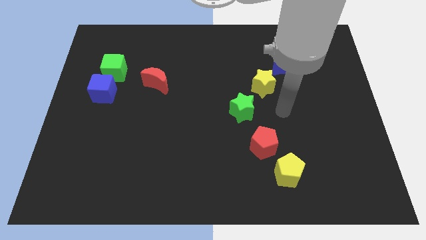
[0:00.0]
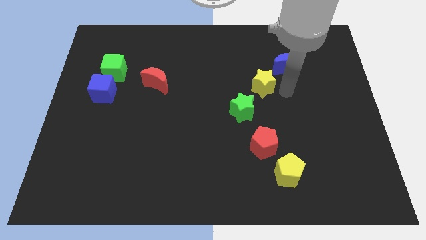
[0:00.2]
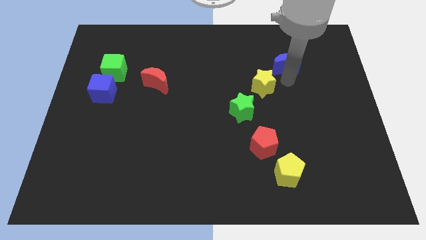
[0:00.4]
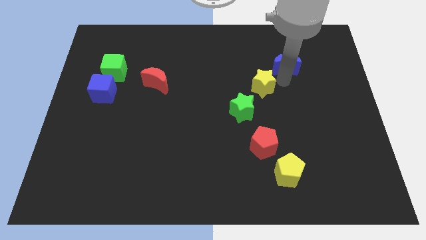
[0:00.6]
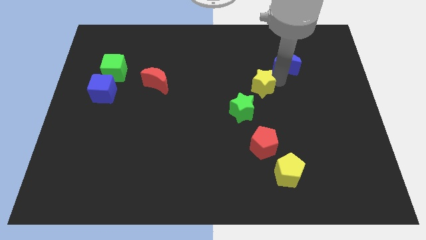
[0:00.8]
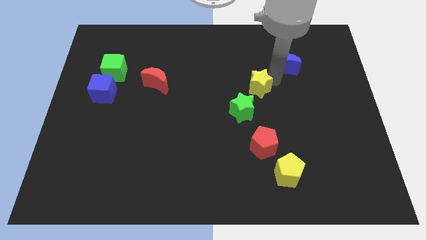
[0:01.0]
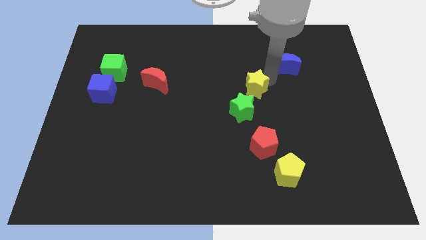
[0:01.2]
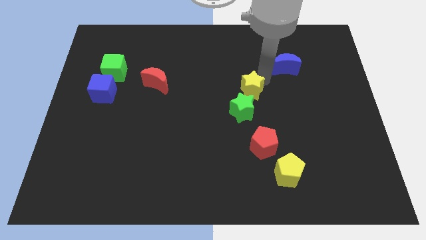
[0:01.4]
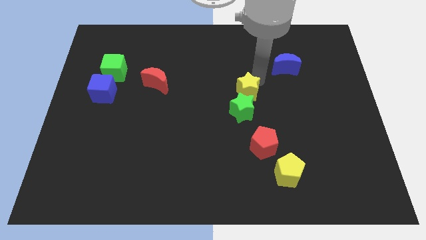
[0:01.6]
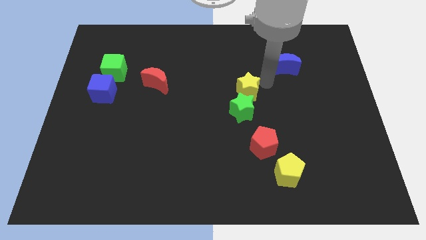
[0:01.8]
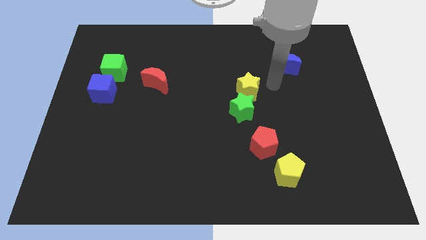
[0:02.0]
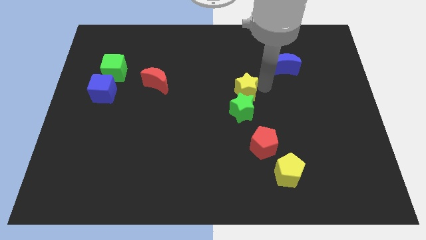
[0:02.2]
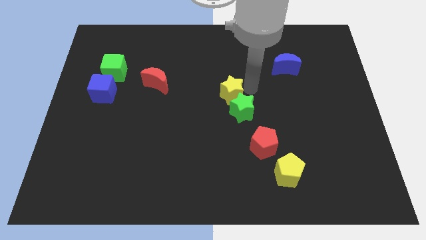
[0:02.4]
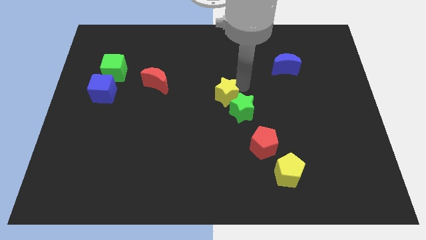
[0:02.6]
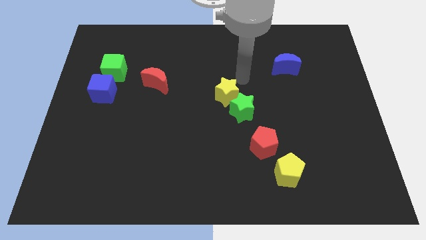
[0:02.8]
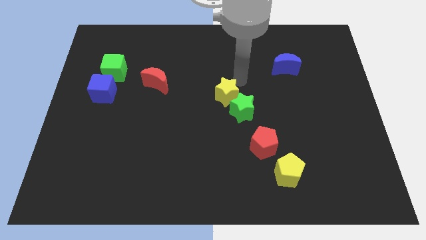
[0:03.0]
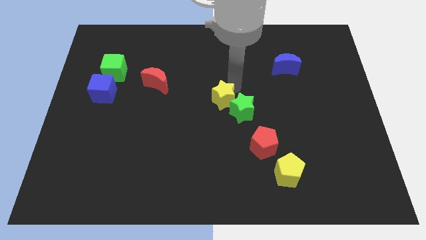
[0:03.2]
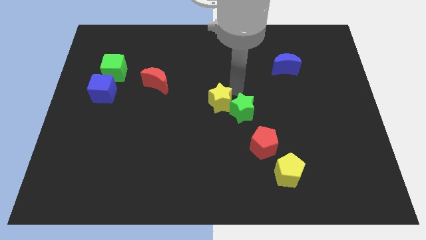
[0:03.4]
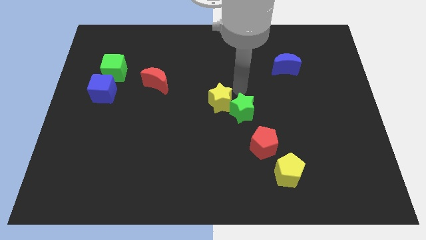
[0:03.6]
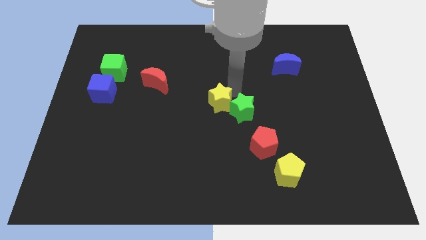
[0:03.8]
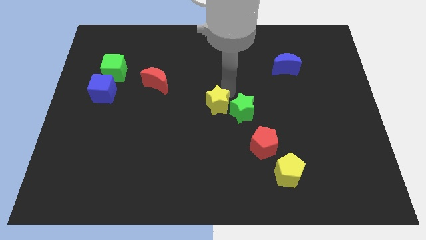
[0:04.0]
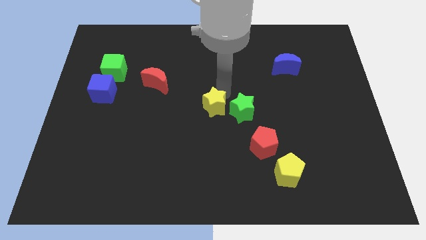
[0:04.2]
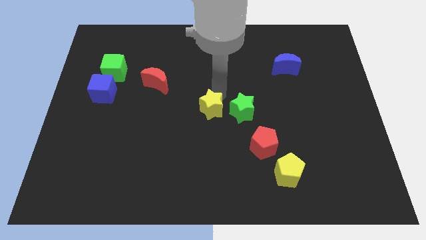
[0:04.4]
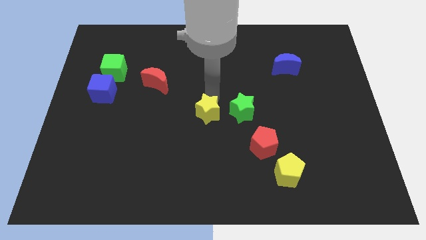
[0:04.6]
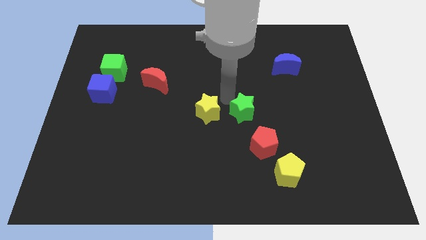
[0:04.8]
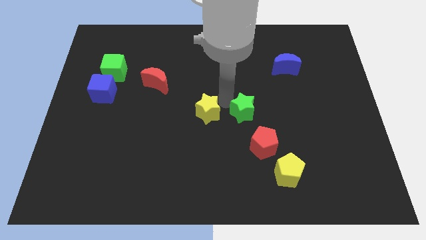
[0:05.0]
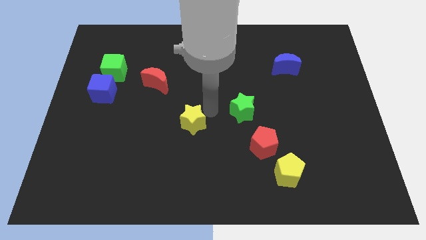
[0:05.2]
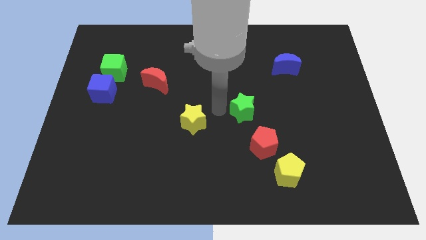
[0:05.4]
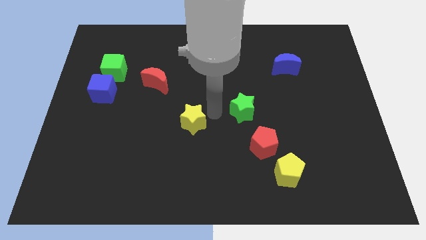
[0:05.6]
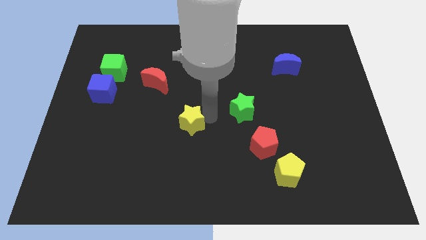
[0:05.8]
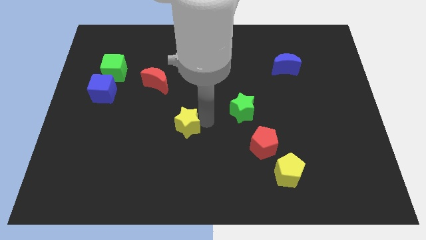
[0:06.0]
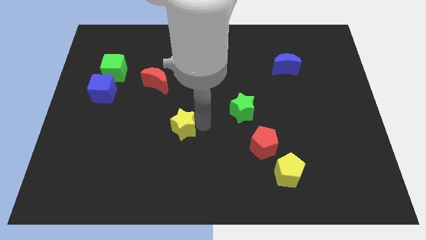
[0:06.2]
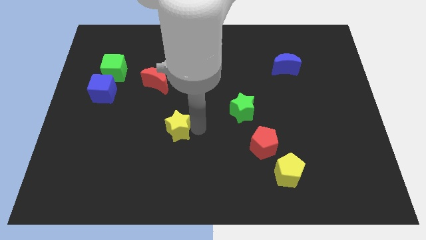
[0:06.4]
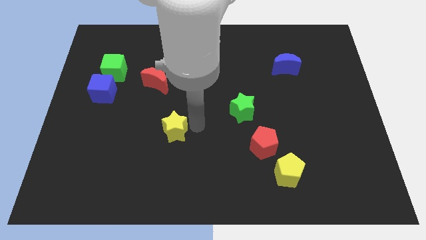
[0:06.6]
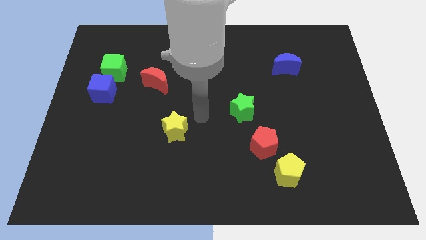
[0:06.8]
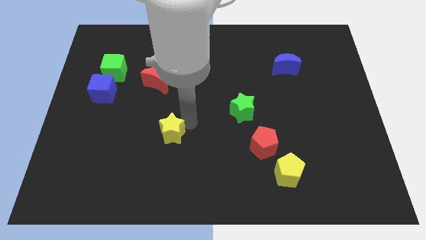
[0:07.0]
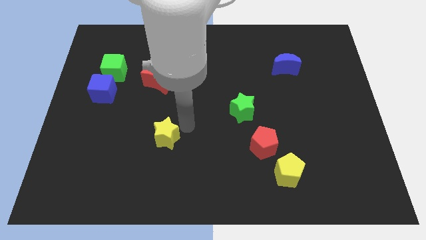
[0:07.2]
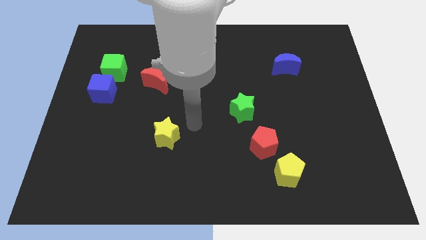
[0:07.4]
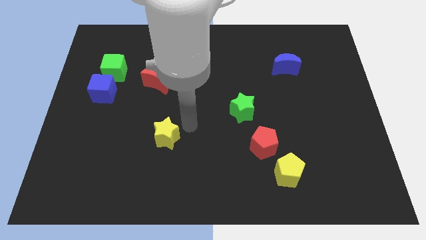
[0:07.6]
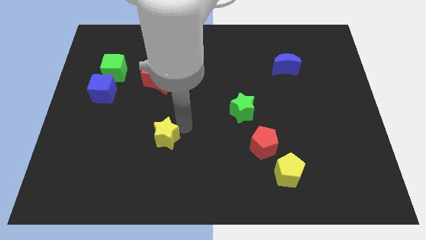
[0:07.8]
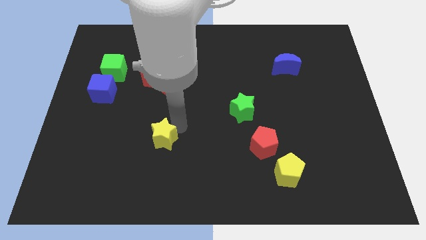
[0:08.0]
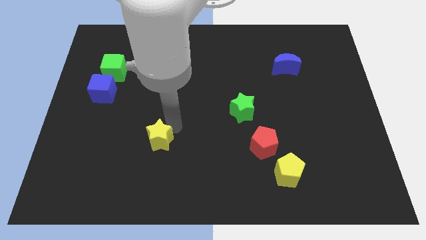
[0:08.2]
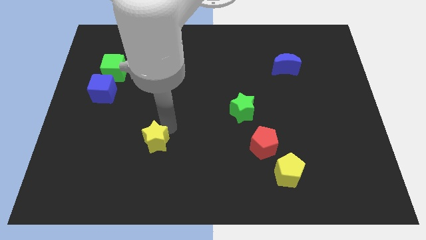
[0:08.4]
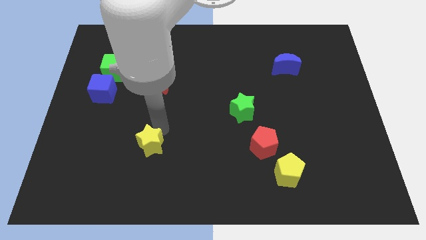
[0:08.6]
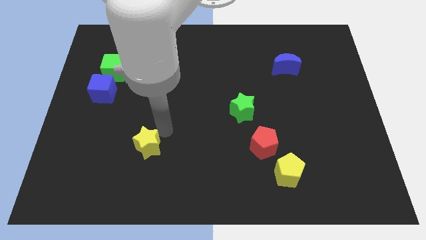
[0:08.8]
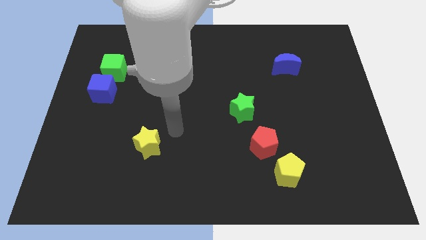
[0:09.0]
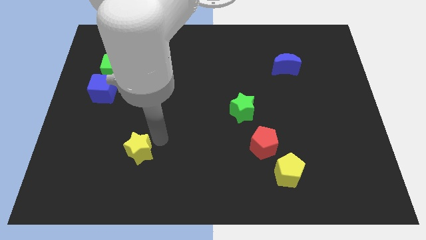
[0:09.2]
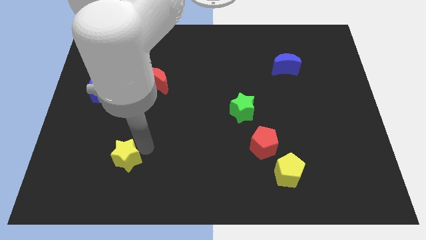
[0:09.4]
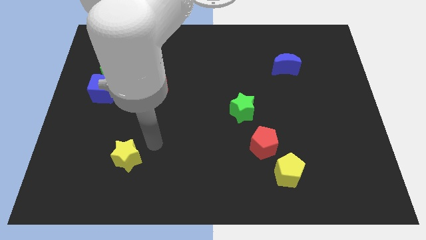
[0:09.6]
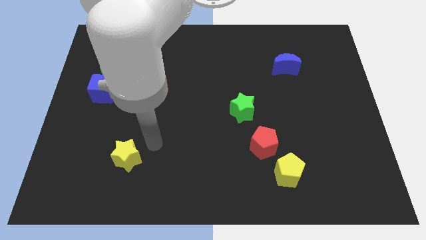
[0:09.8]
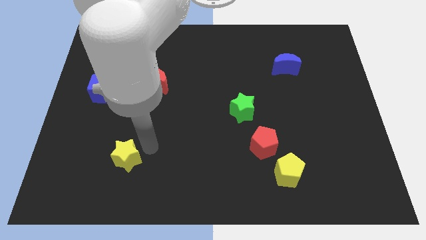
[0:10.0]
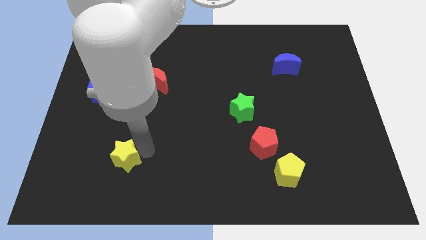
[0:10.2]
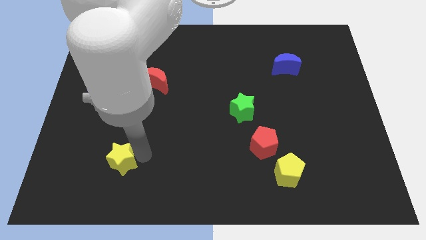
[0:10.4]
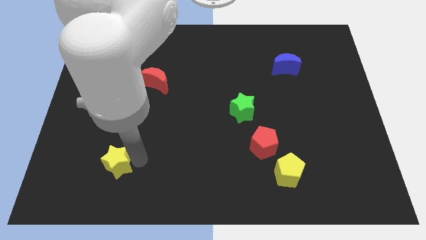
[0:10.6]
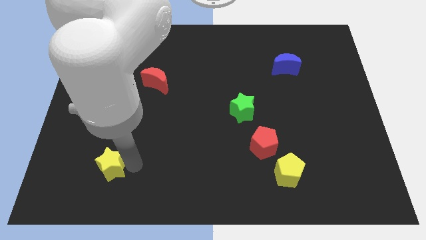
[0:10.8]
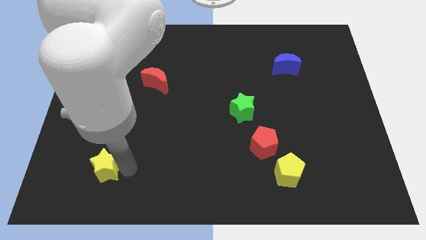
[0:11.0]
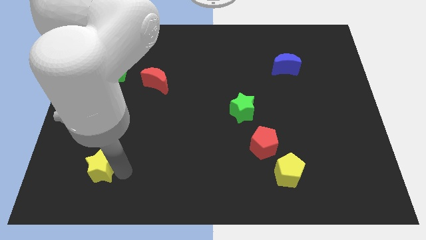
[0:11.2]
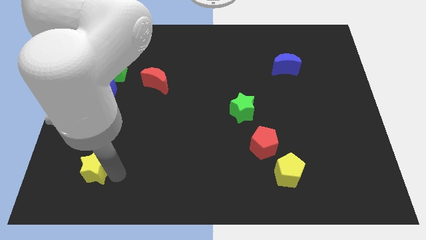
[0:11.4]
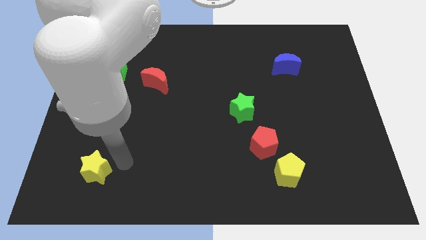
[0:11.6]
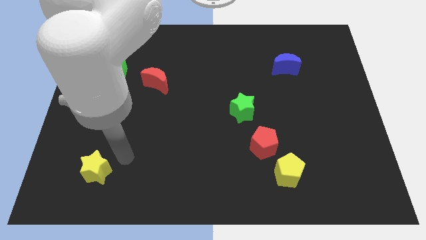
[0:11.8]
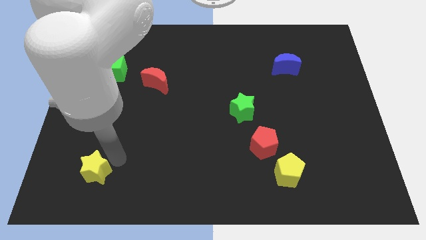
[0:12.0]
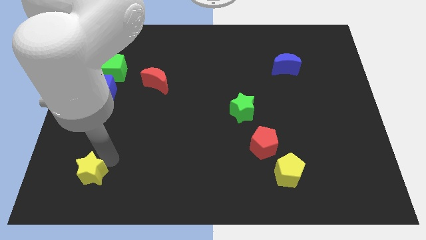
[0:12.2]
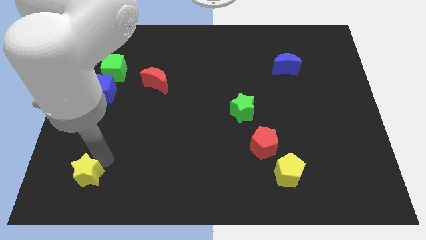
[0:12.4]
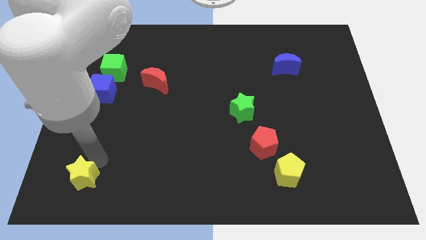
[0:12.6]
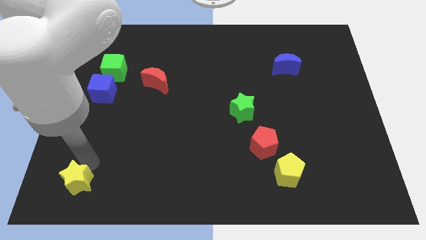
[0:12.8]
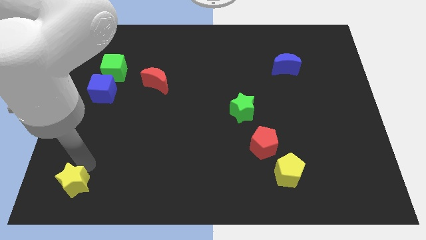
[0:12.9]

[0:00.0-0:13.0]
move the yellow star to the lower left corner

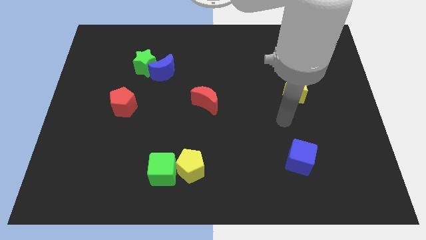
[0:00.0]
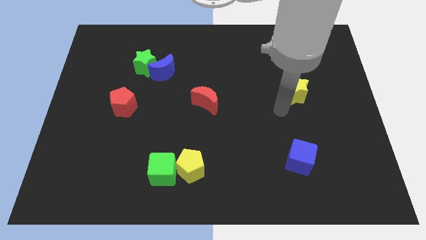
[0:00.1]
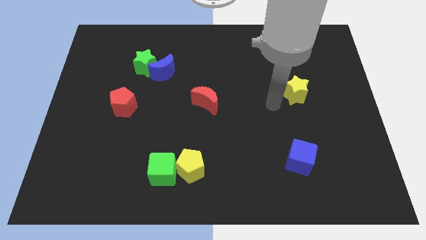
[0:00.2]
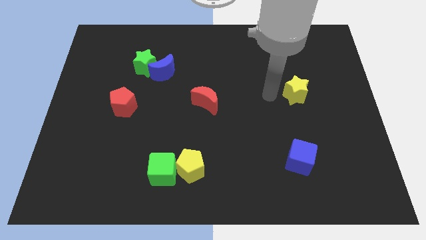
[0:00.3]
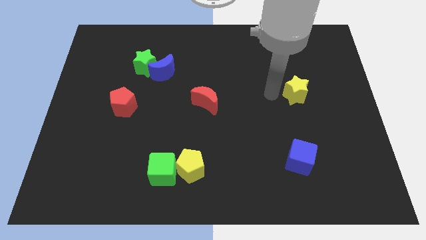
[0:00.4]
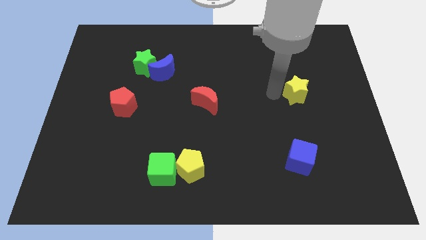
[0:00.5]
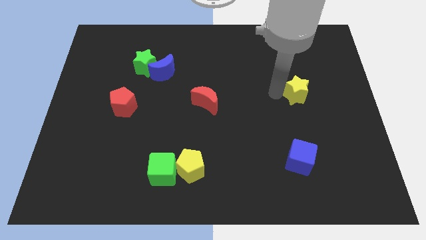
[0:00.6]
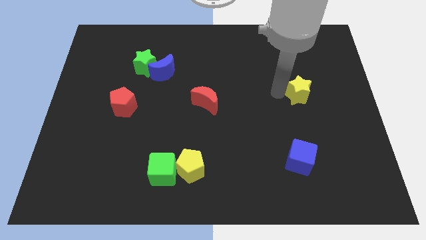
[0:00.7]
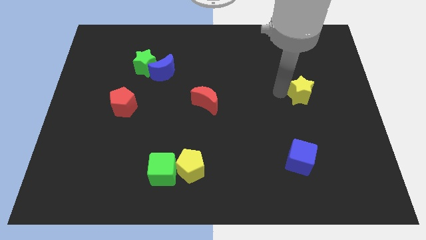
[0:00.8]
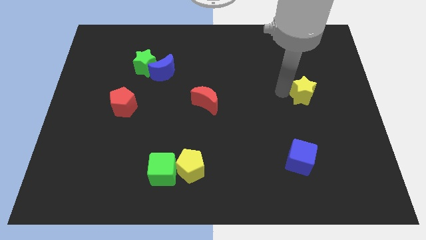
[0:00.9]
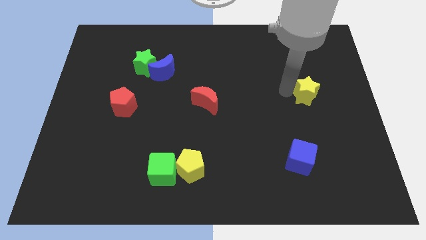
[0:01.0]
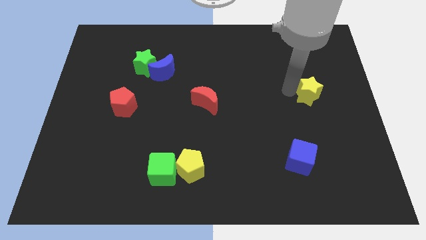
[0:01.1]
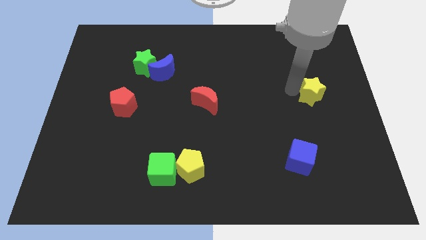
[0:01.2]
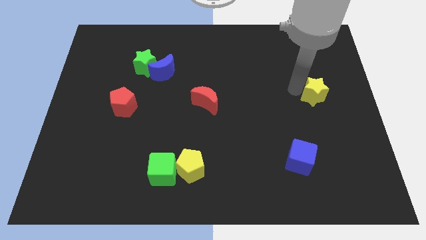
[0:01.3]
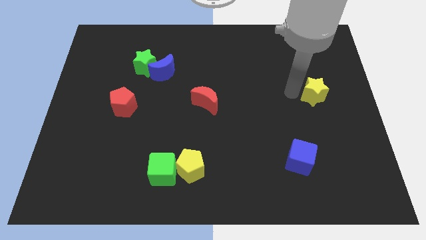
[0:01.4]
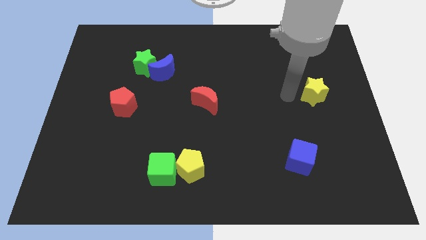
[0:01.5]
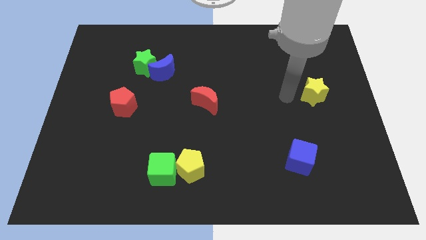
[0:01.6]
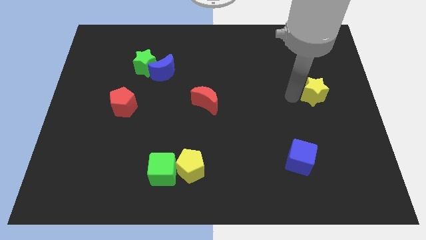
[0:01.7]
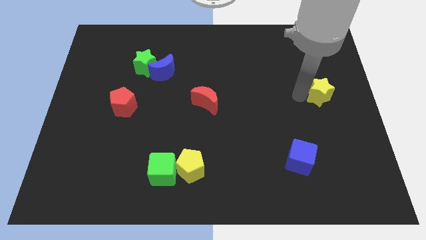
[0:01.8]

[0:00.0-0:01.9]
slide the yellow star to the right side of the board
